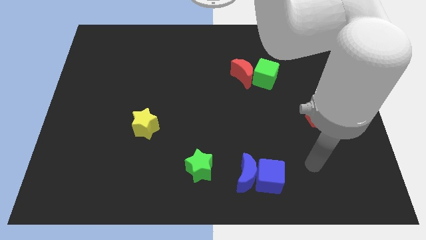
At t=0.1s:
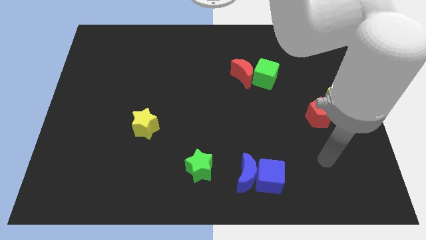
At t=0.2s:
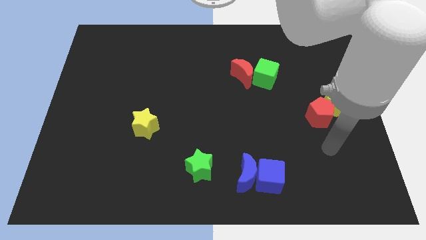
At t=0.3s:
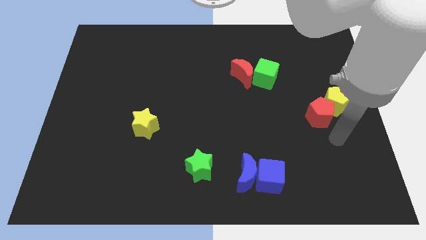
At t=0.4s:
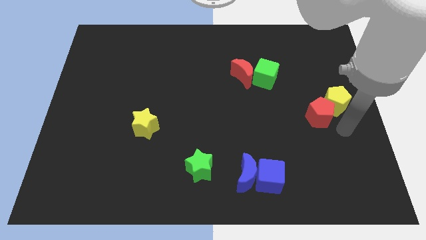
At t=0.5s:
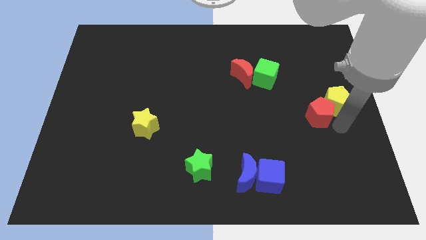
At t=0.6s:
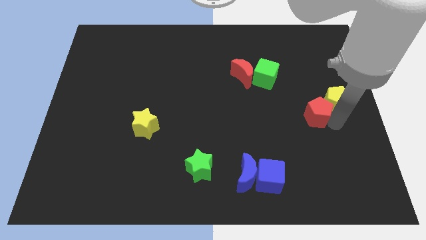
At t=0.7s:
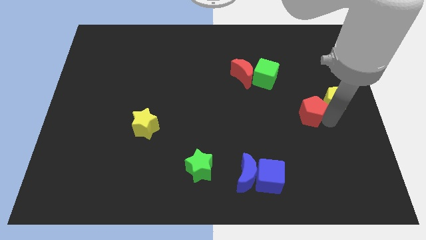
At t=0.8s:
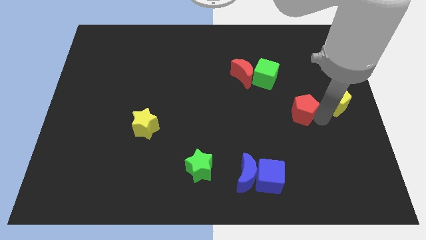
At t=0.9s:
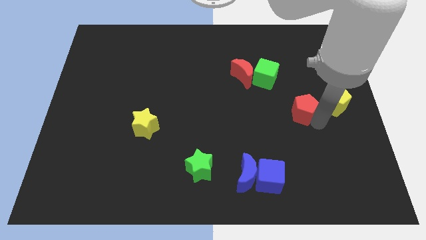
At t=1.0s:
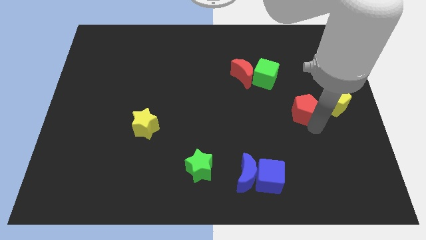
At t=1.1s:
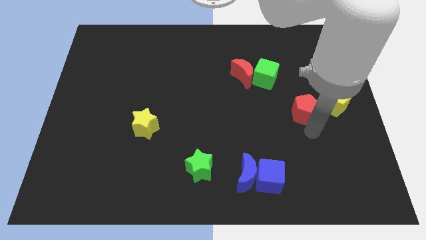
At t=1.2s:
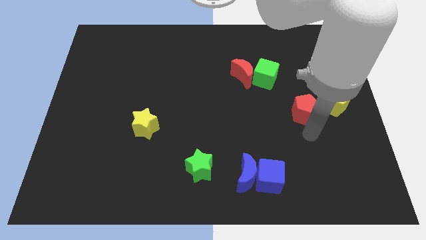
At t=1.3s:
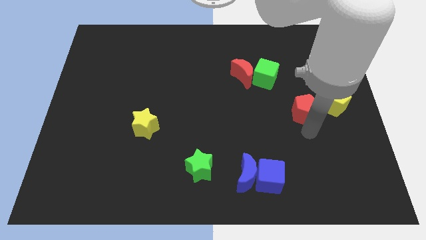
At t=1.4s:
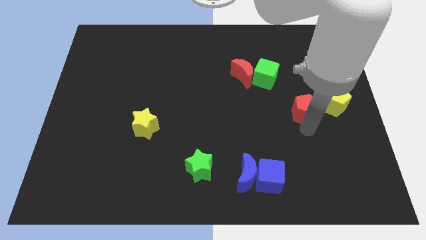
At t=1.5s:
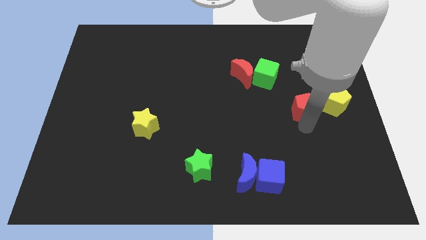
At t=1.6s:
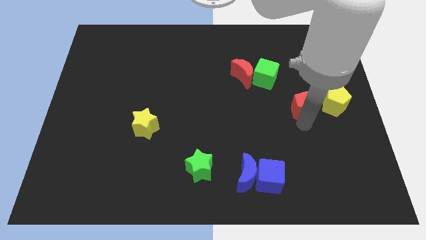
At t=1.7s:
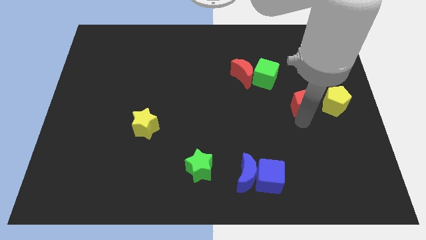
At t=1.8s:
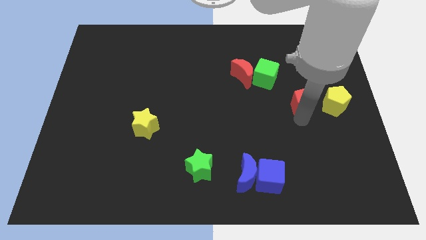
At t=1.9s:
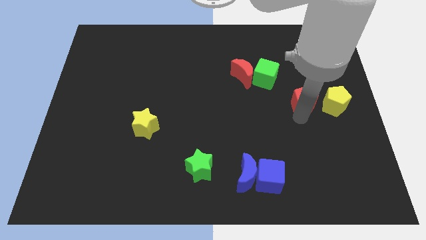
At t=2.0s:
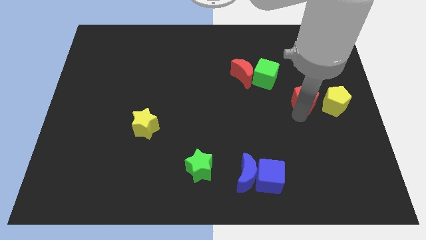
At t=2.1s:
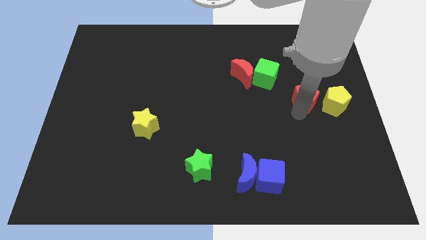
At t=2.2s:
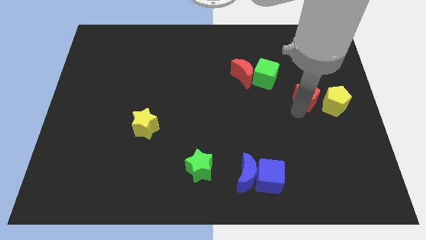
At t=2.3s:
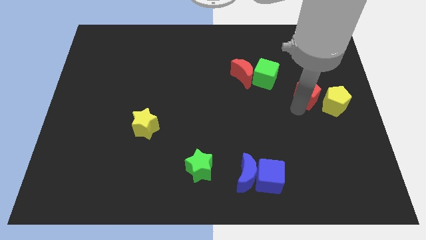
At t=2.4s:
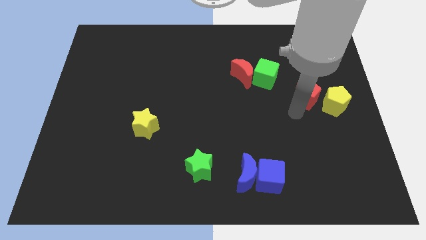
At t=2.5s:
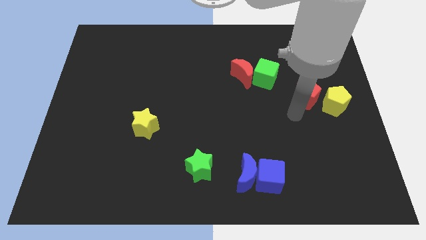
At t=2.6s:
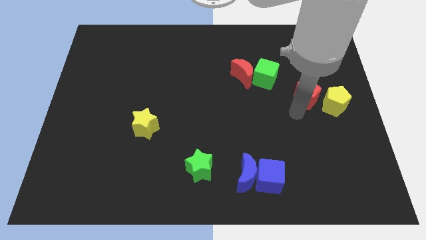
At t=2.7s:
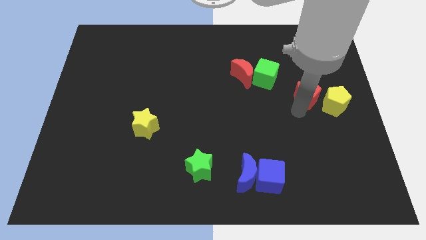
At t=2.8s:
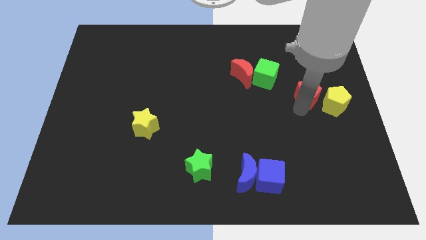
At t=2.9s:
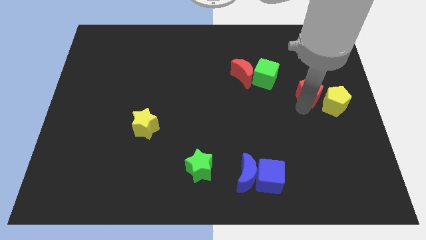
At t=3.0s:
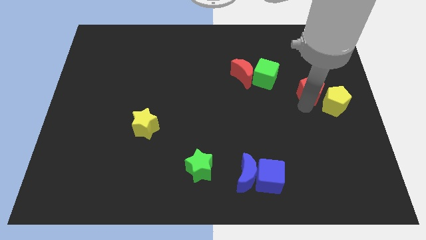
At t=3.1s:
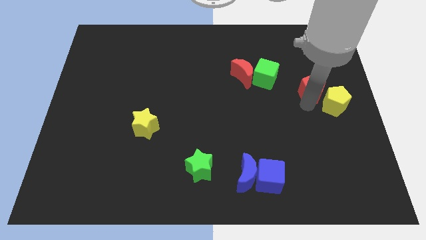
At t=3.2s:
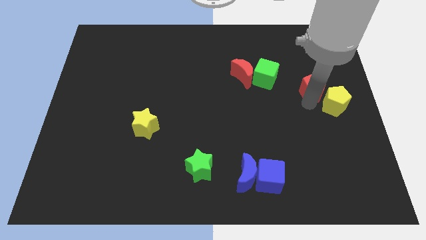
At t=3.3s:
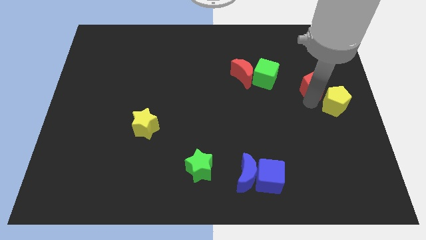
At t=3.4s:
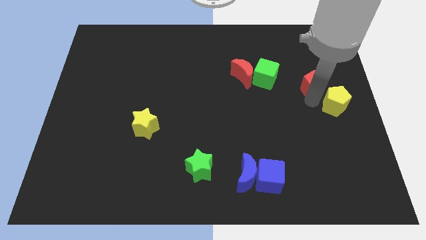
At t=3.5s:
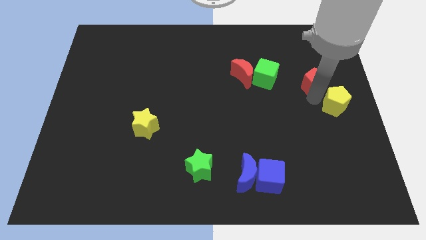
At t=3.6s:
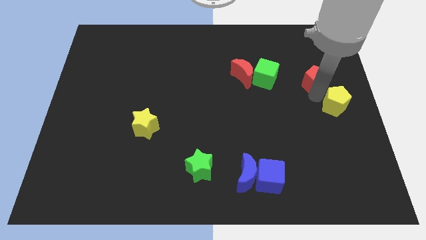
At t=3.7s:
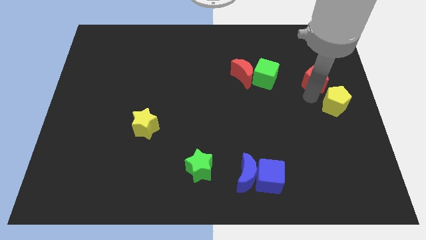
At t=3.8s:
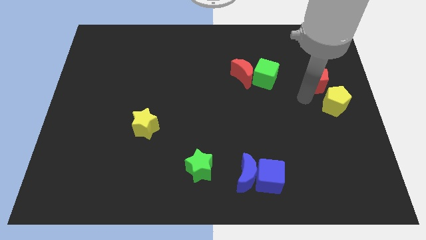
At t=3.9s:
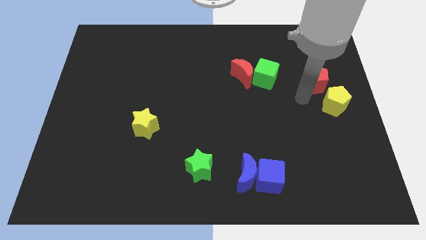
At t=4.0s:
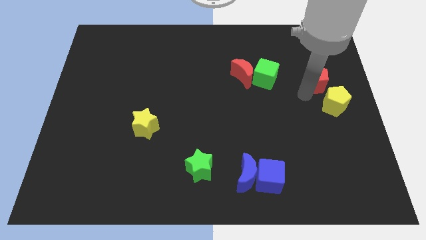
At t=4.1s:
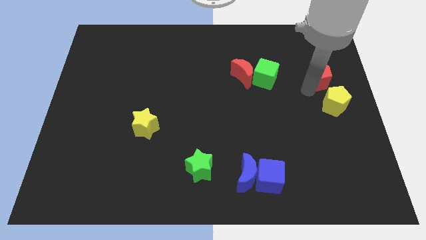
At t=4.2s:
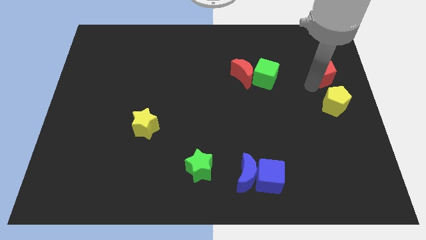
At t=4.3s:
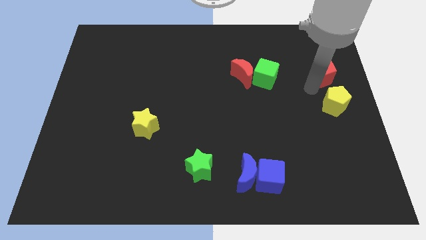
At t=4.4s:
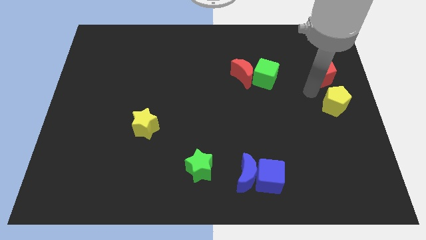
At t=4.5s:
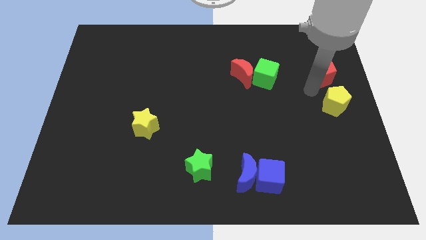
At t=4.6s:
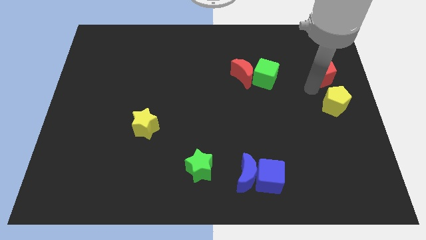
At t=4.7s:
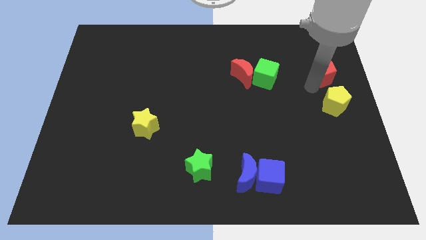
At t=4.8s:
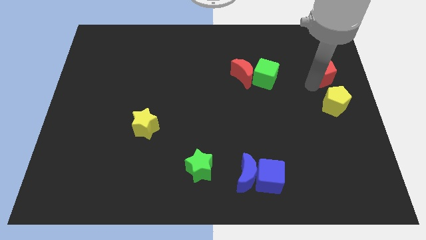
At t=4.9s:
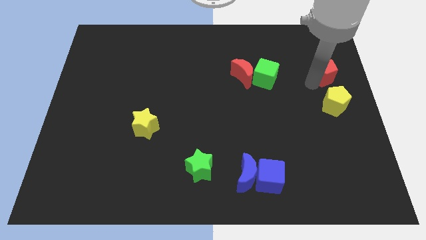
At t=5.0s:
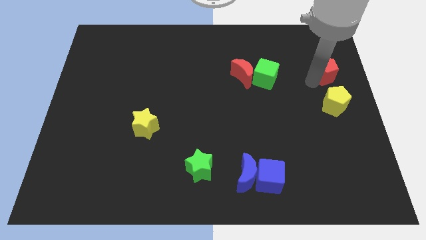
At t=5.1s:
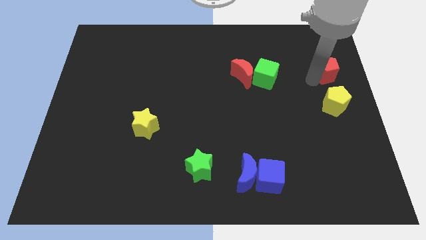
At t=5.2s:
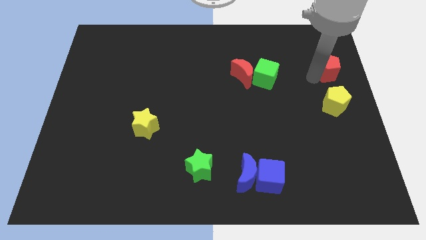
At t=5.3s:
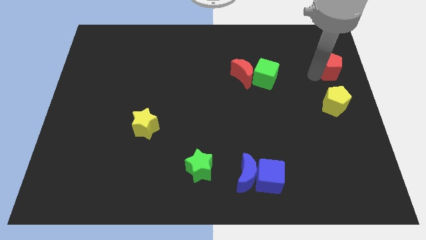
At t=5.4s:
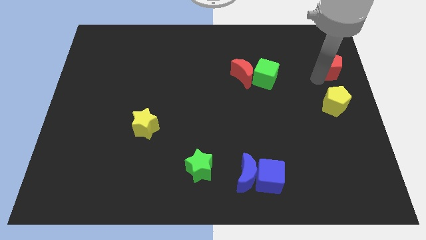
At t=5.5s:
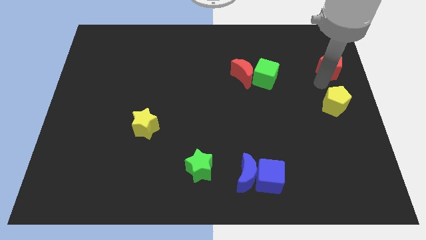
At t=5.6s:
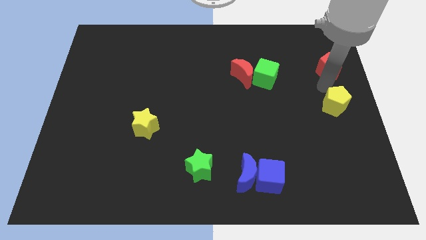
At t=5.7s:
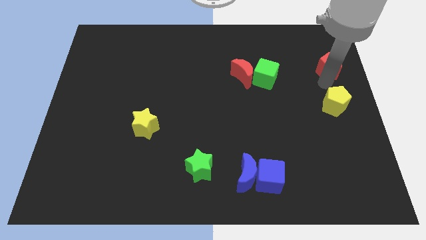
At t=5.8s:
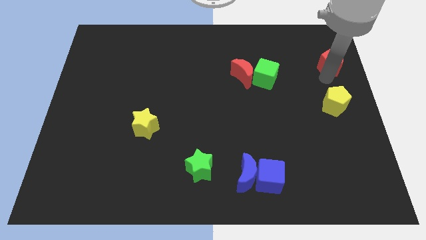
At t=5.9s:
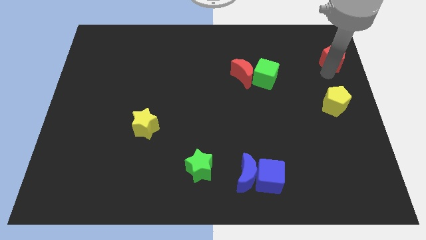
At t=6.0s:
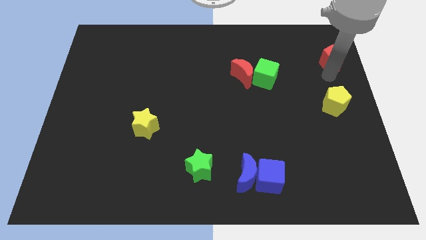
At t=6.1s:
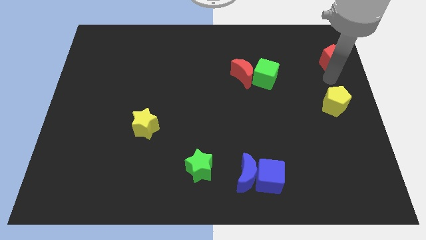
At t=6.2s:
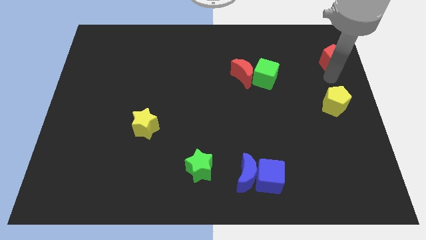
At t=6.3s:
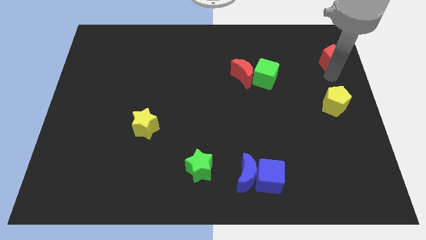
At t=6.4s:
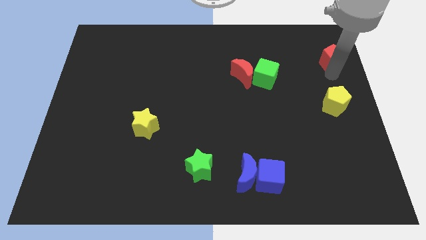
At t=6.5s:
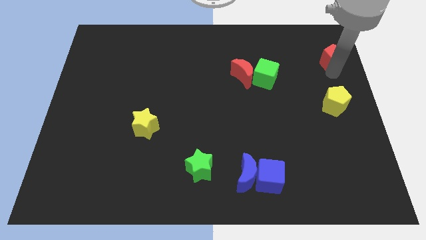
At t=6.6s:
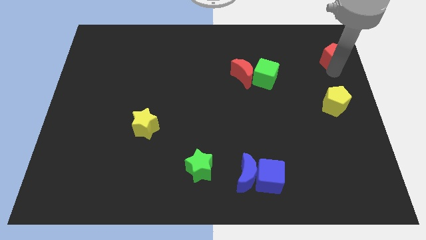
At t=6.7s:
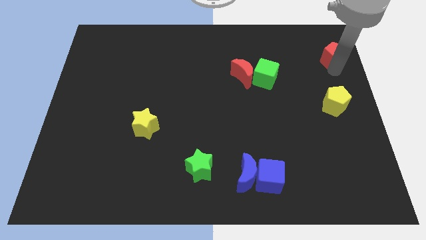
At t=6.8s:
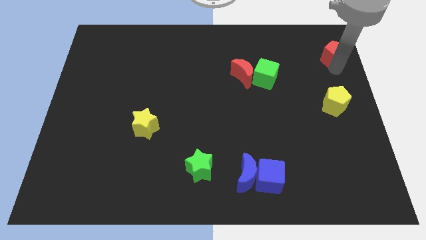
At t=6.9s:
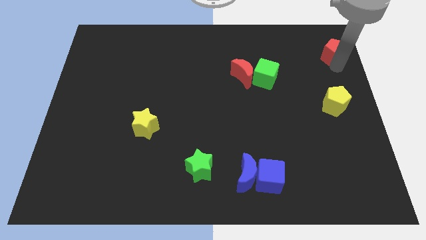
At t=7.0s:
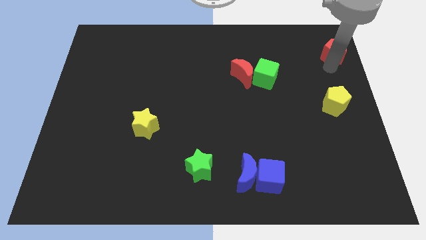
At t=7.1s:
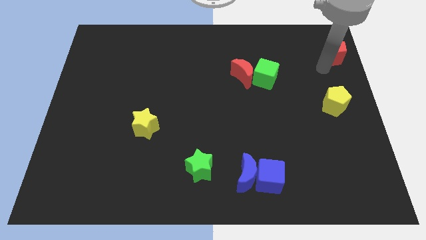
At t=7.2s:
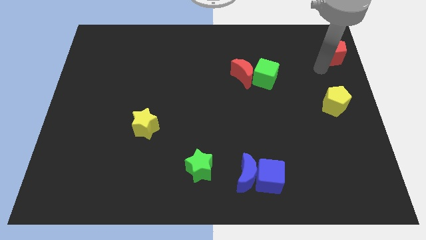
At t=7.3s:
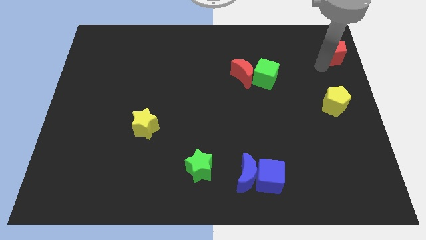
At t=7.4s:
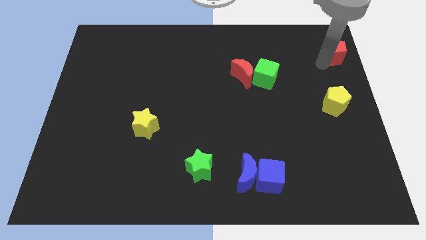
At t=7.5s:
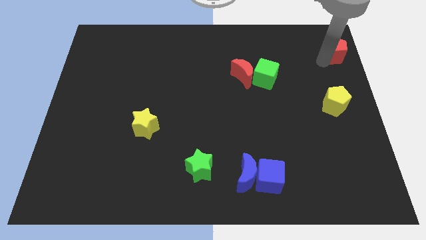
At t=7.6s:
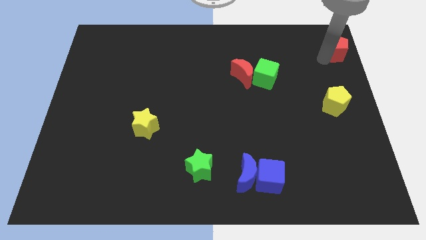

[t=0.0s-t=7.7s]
put the red pentagon to the top right
